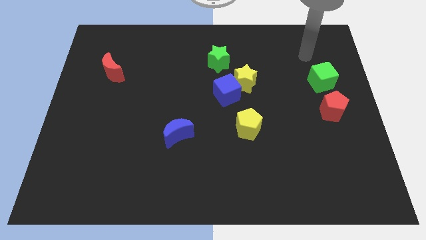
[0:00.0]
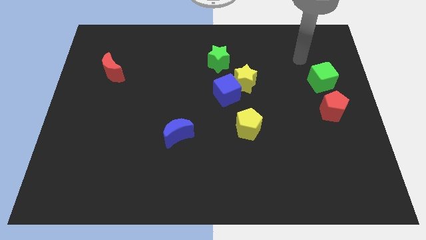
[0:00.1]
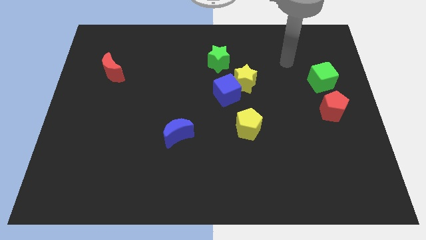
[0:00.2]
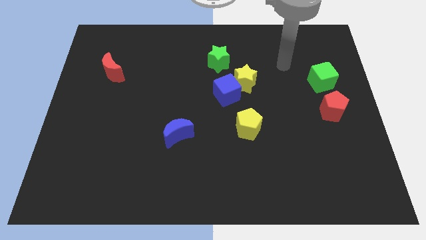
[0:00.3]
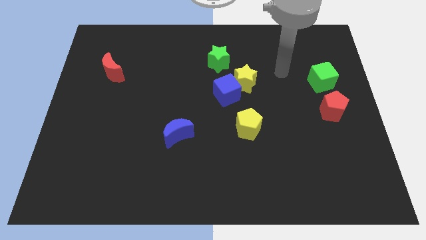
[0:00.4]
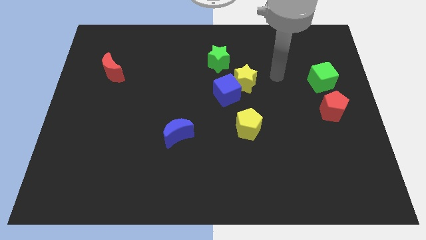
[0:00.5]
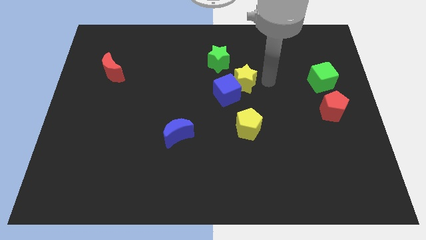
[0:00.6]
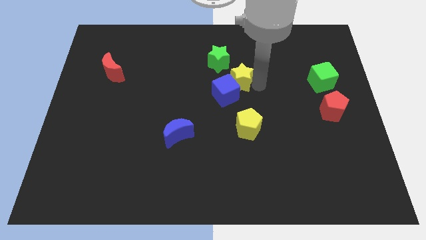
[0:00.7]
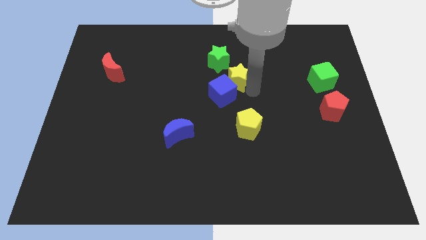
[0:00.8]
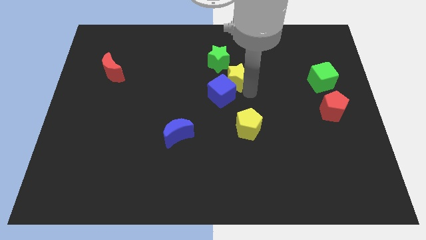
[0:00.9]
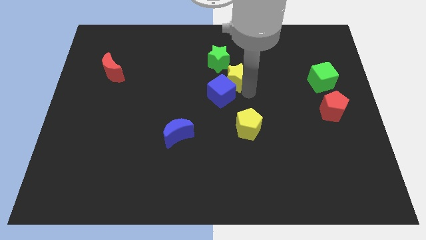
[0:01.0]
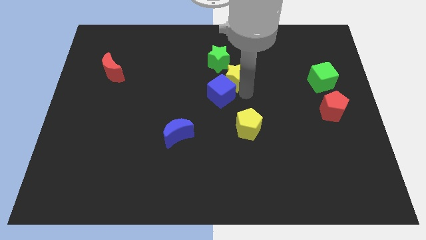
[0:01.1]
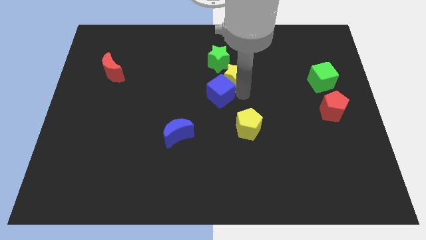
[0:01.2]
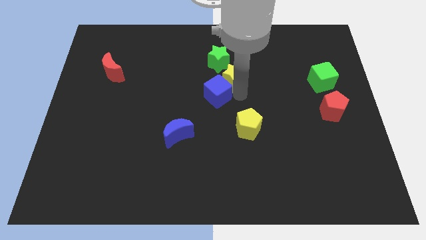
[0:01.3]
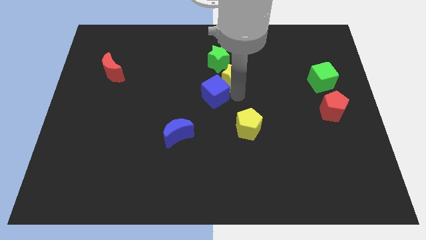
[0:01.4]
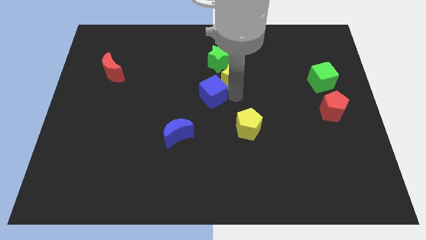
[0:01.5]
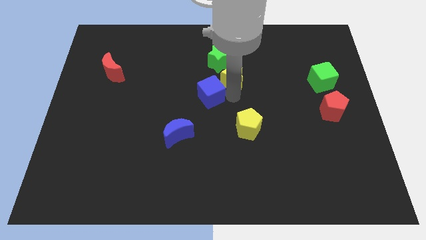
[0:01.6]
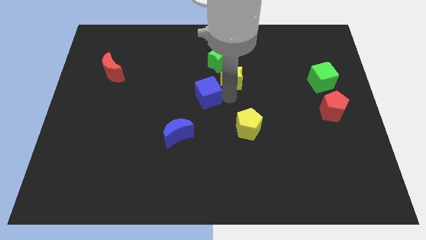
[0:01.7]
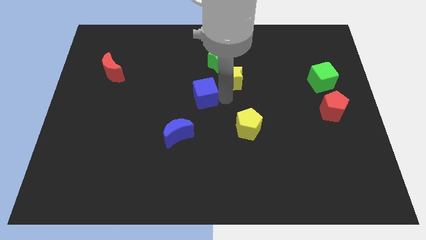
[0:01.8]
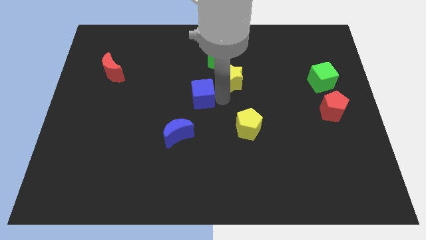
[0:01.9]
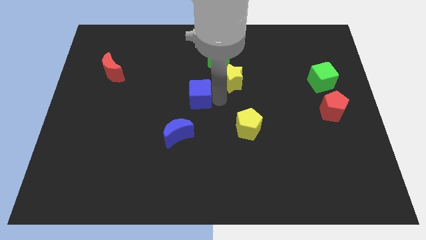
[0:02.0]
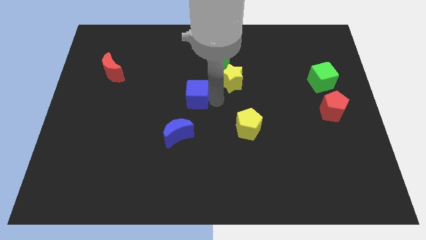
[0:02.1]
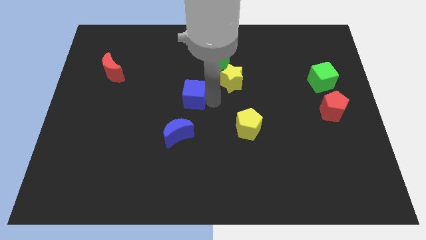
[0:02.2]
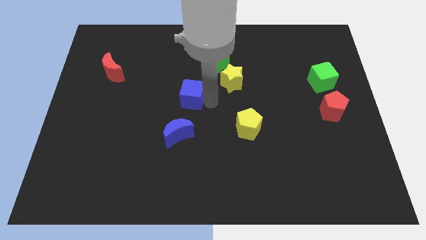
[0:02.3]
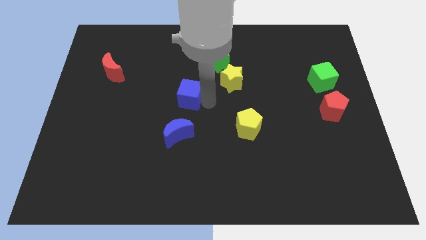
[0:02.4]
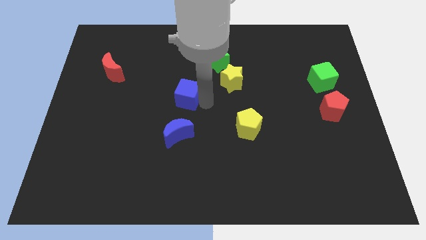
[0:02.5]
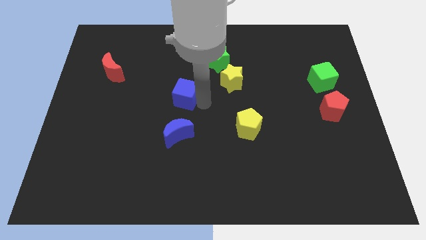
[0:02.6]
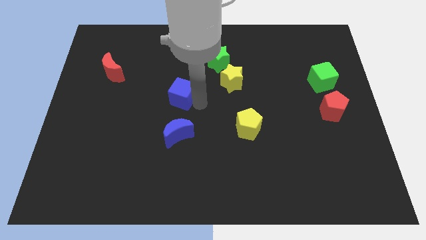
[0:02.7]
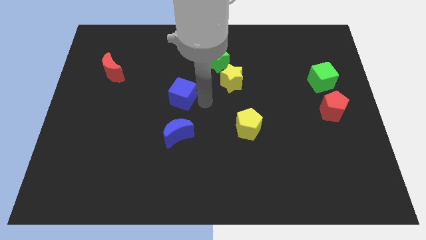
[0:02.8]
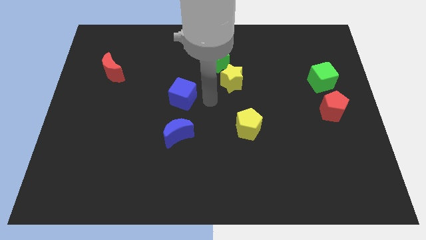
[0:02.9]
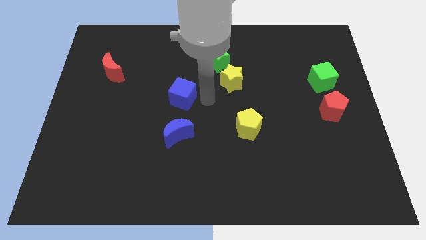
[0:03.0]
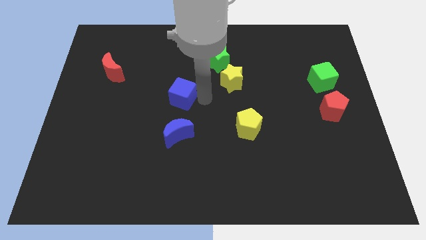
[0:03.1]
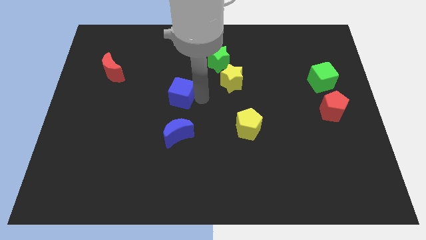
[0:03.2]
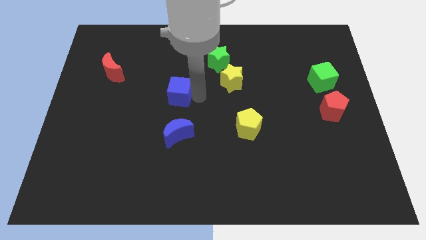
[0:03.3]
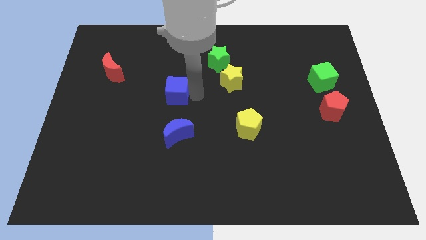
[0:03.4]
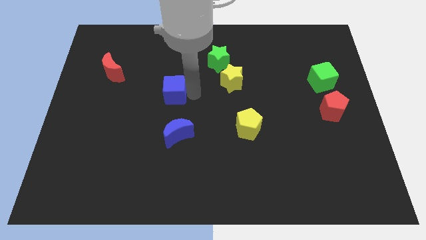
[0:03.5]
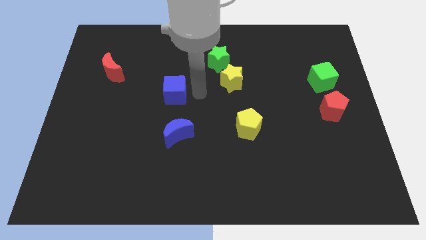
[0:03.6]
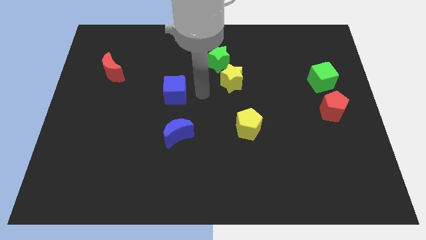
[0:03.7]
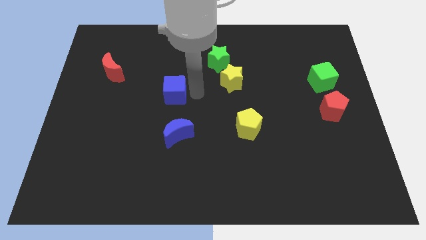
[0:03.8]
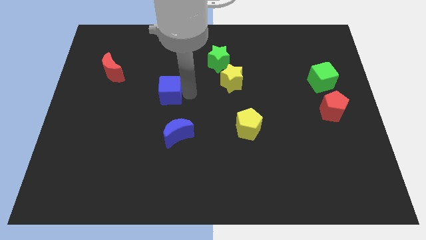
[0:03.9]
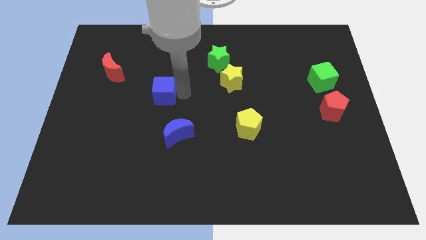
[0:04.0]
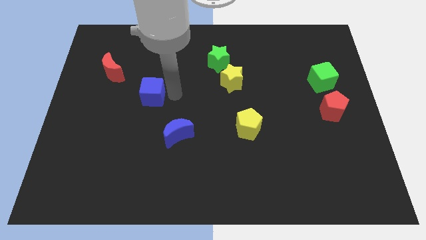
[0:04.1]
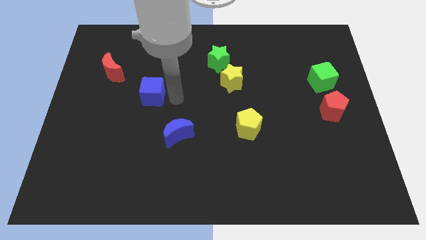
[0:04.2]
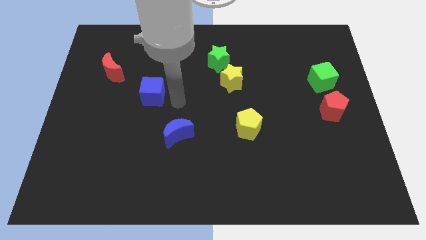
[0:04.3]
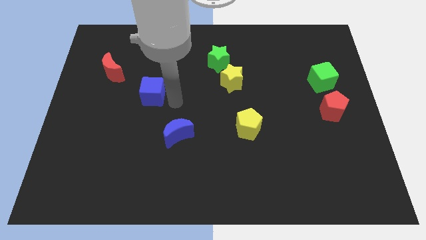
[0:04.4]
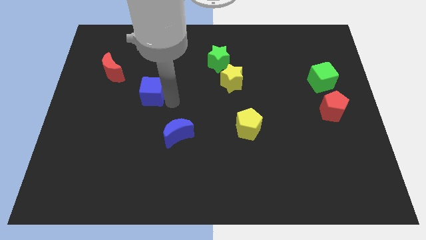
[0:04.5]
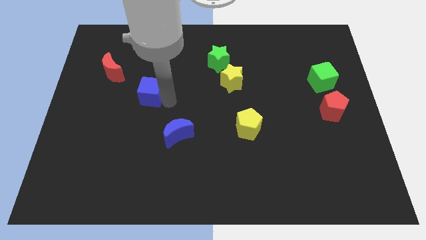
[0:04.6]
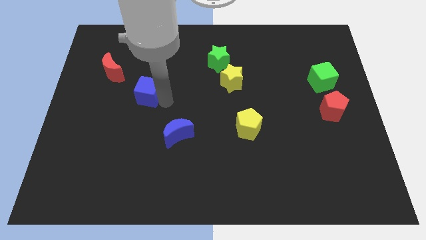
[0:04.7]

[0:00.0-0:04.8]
slide the blue cube to the bottom right side of the red moon

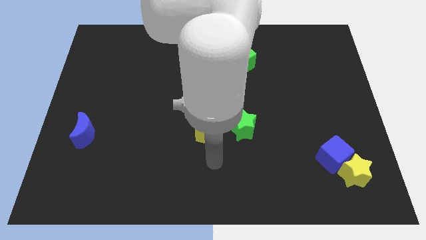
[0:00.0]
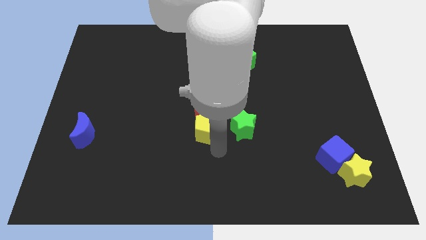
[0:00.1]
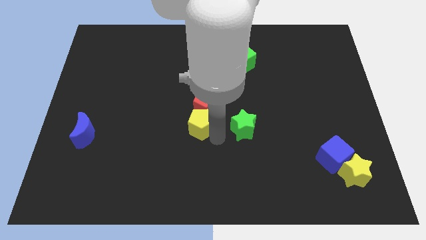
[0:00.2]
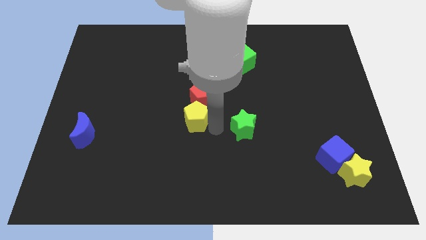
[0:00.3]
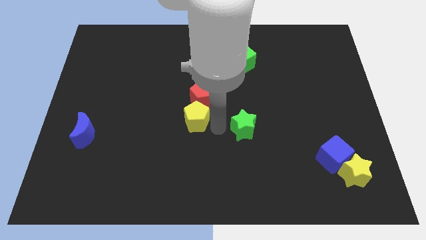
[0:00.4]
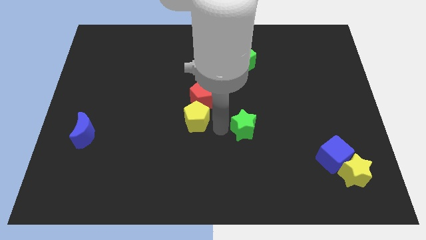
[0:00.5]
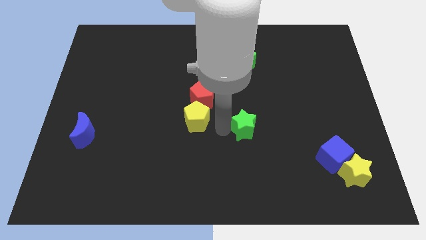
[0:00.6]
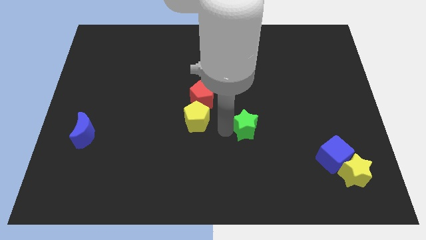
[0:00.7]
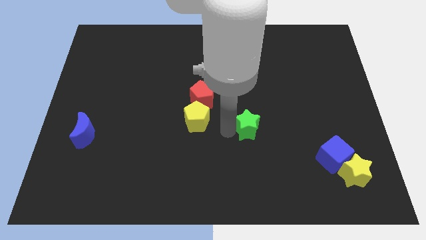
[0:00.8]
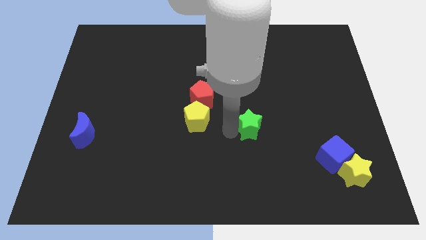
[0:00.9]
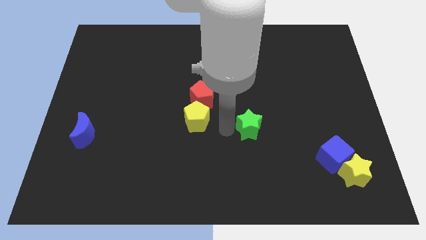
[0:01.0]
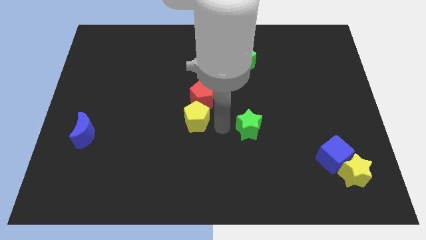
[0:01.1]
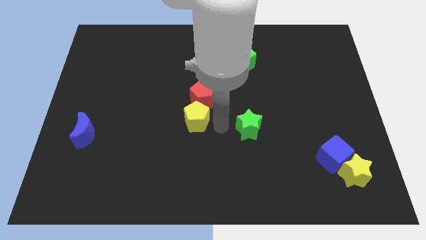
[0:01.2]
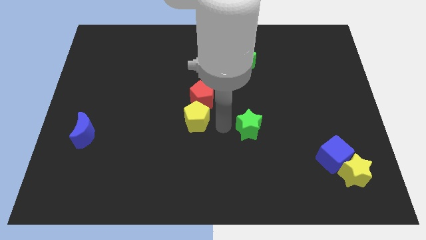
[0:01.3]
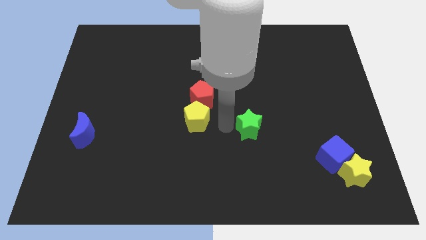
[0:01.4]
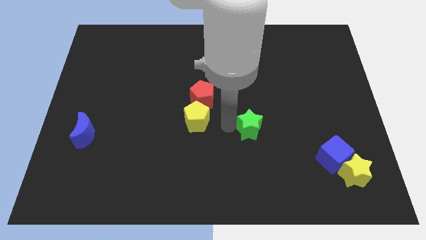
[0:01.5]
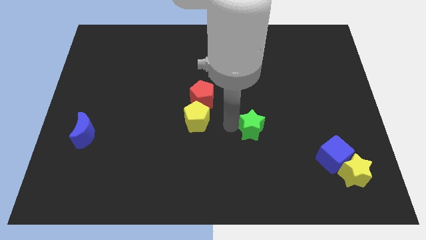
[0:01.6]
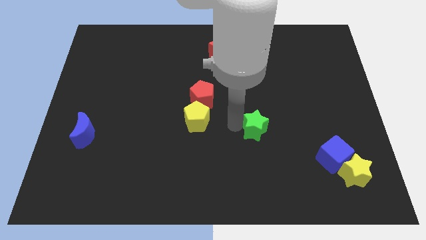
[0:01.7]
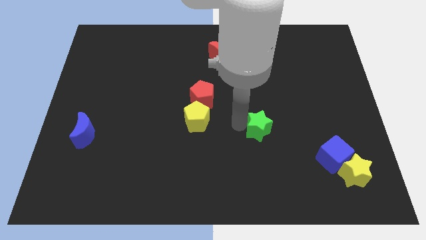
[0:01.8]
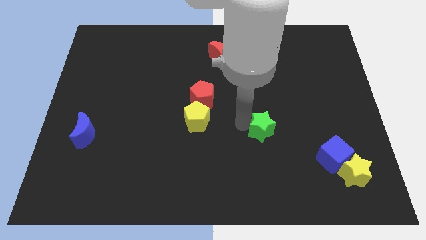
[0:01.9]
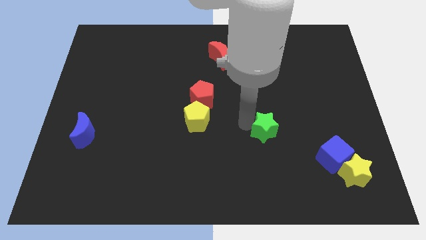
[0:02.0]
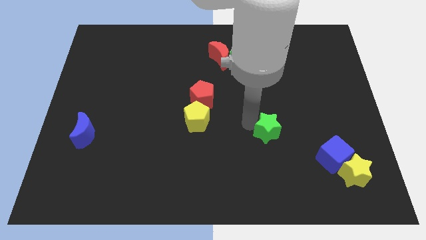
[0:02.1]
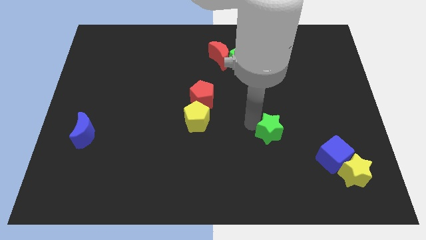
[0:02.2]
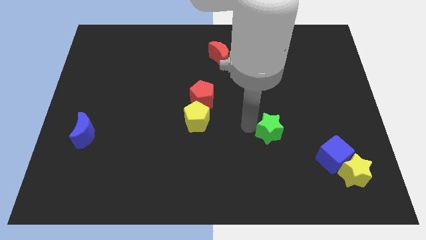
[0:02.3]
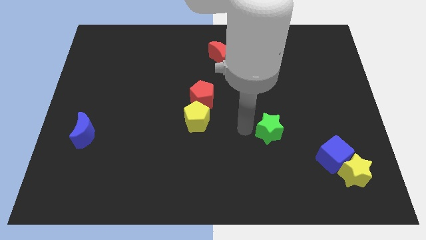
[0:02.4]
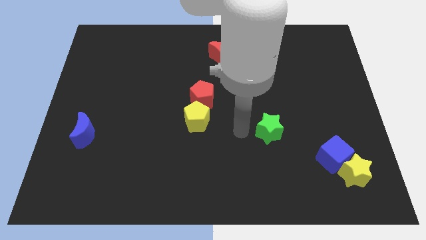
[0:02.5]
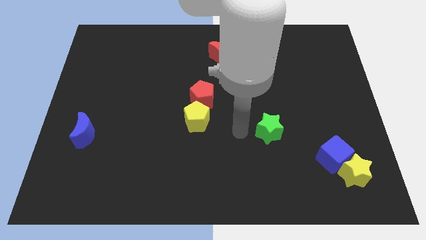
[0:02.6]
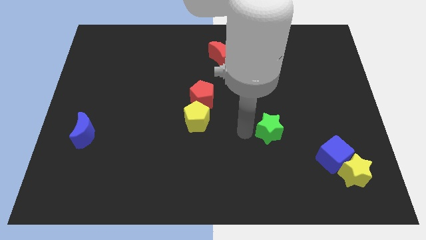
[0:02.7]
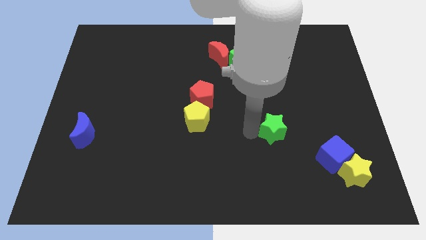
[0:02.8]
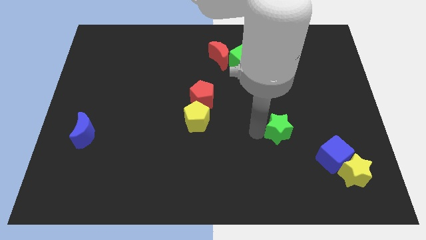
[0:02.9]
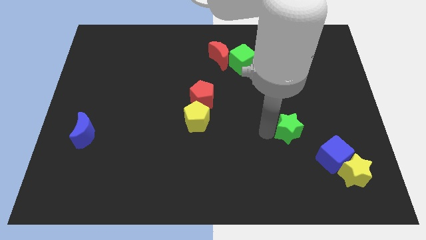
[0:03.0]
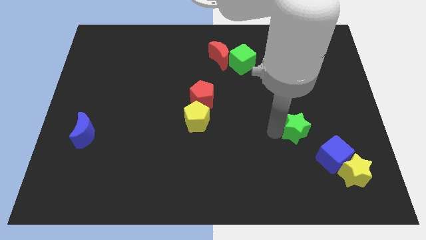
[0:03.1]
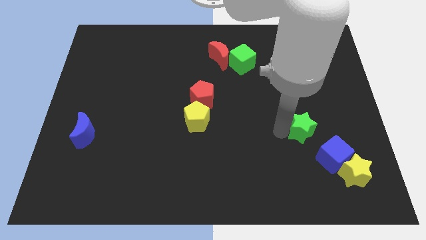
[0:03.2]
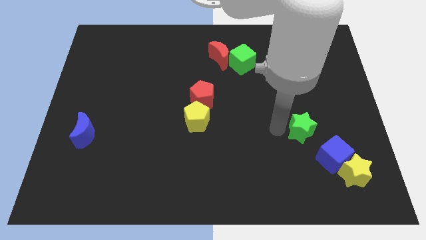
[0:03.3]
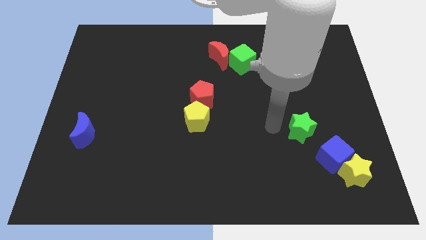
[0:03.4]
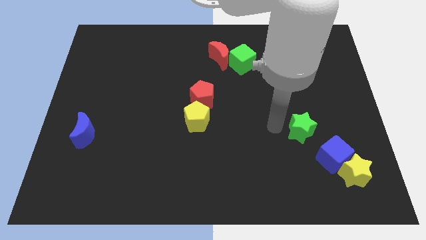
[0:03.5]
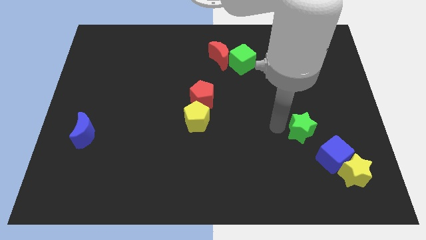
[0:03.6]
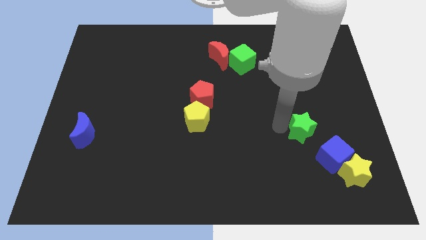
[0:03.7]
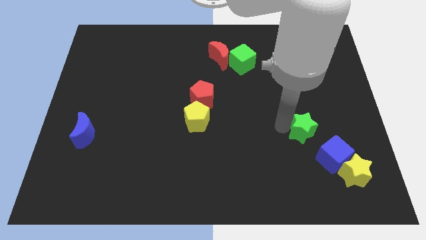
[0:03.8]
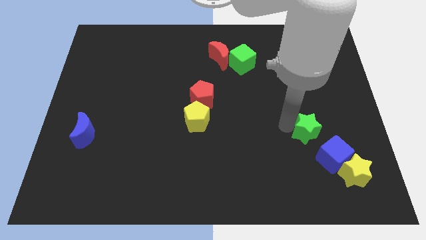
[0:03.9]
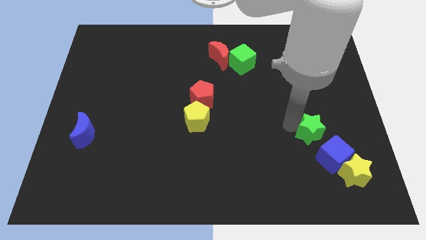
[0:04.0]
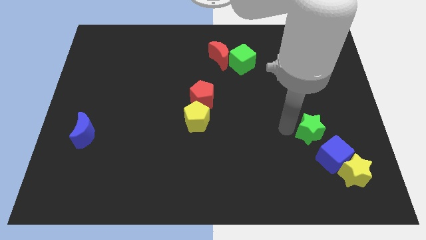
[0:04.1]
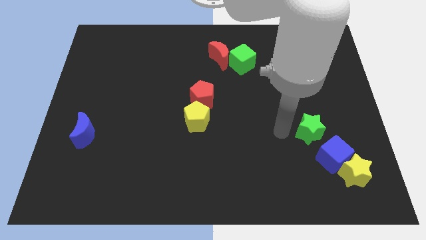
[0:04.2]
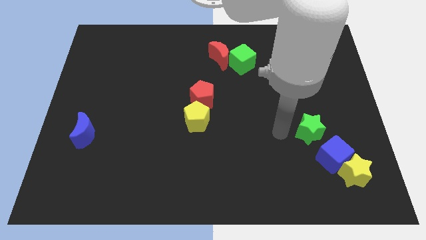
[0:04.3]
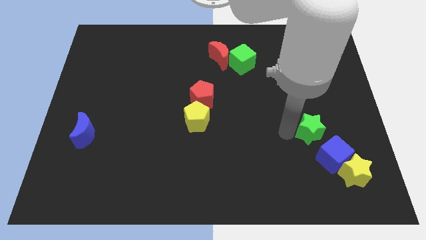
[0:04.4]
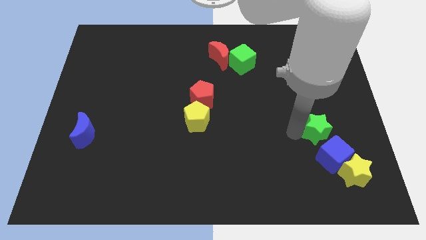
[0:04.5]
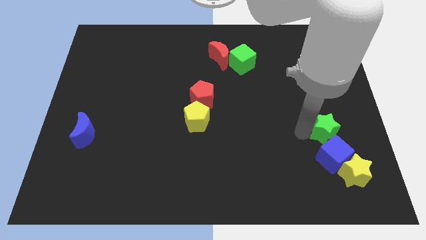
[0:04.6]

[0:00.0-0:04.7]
move the green star above the yellow star
